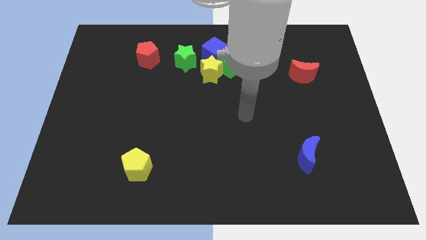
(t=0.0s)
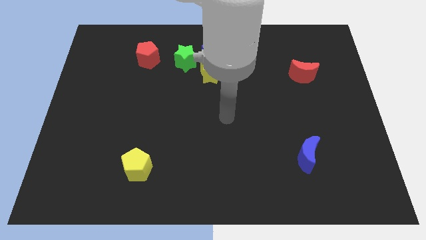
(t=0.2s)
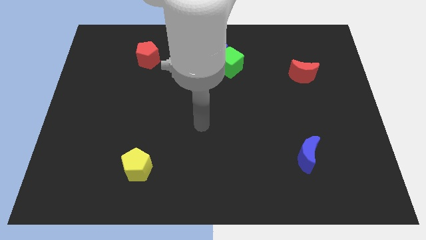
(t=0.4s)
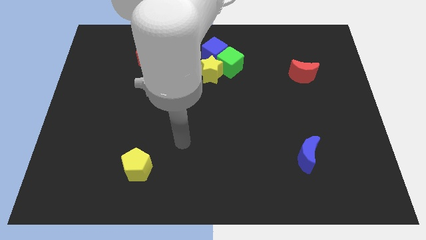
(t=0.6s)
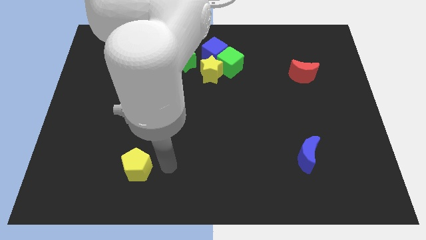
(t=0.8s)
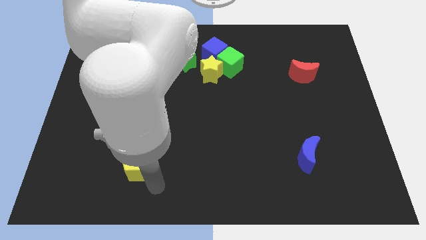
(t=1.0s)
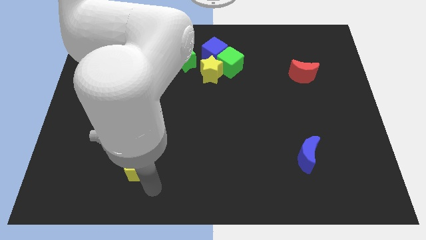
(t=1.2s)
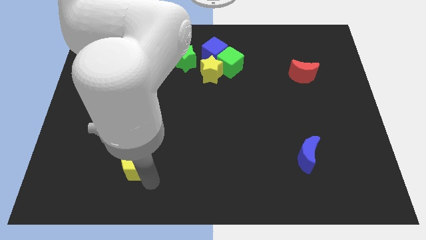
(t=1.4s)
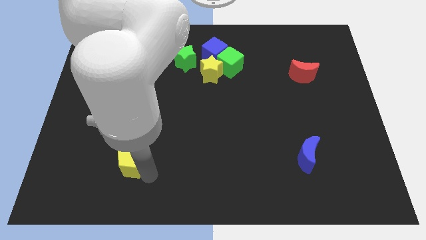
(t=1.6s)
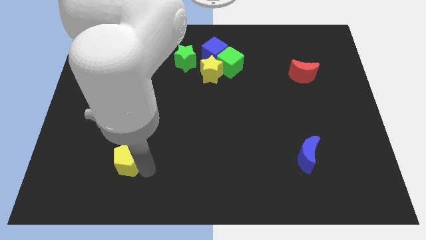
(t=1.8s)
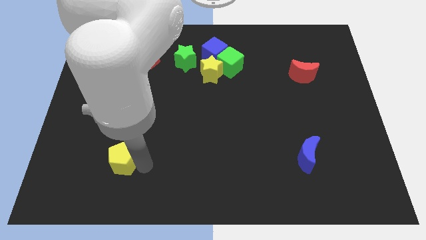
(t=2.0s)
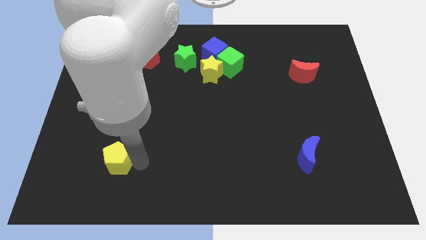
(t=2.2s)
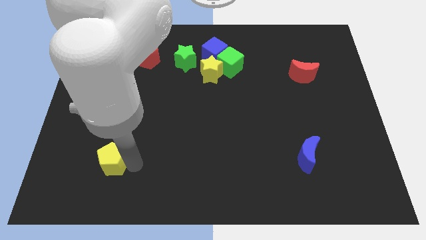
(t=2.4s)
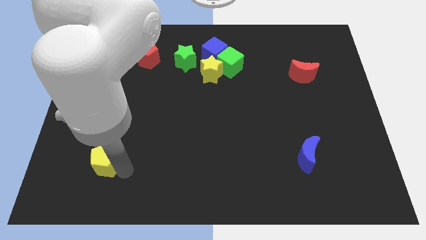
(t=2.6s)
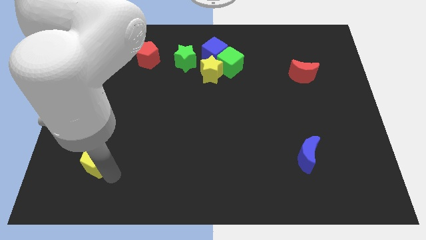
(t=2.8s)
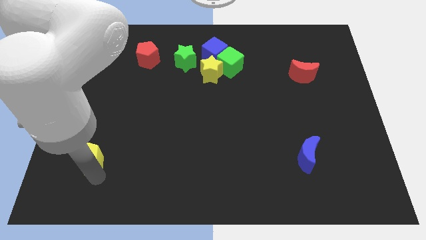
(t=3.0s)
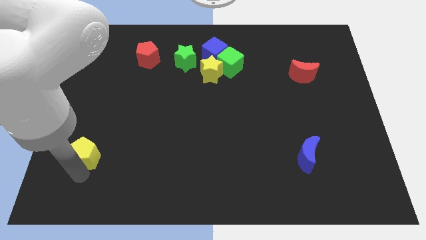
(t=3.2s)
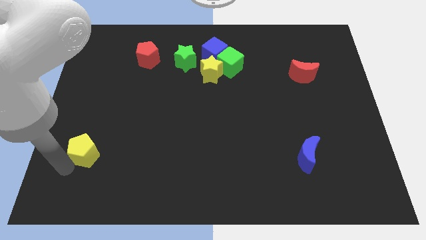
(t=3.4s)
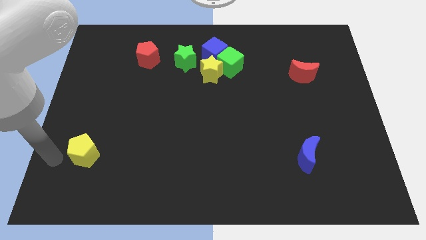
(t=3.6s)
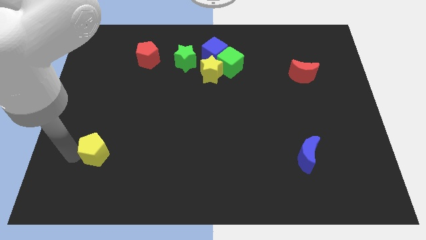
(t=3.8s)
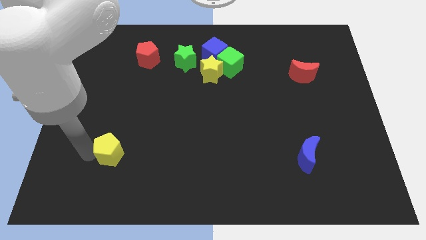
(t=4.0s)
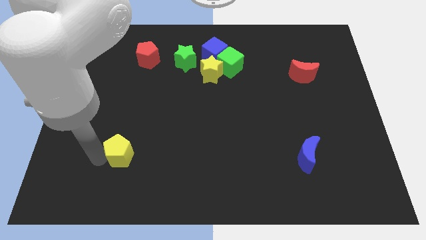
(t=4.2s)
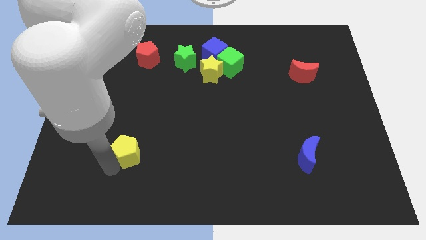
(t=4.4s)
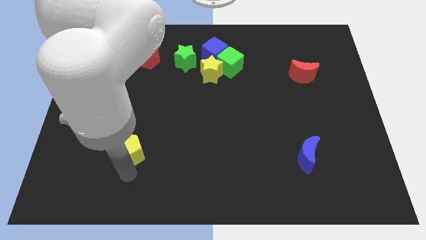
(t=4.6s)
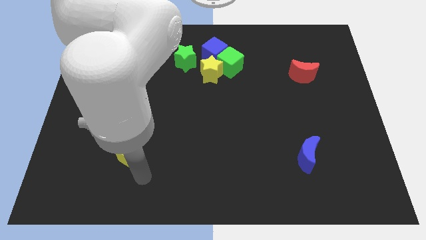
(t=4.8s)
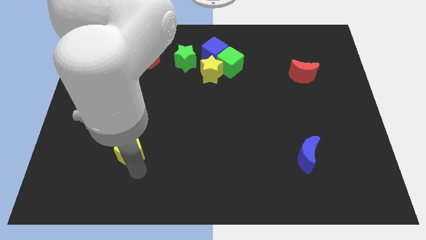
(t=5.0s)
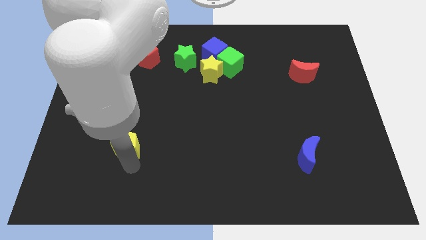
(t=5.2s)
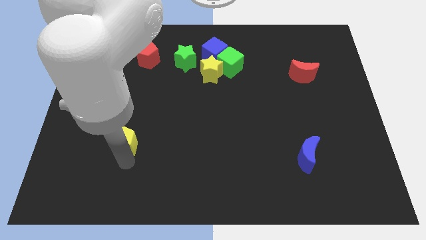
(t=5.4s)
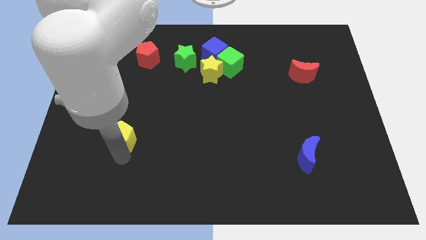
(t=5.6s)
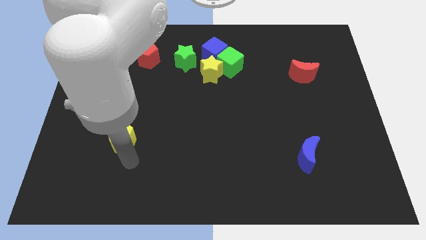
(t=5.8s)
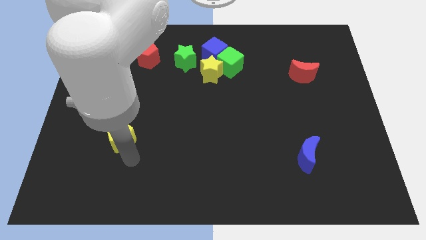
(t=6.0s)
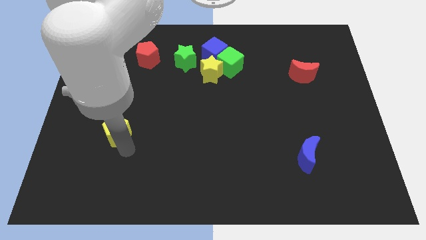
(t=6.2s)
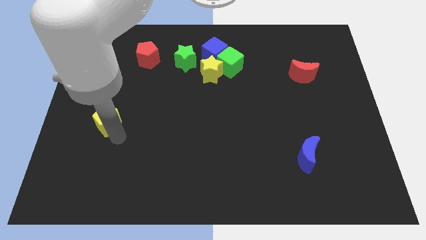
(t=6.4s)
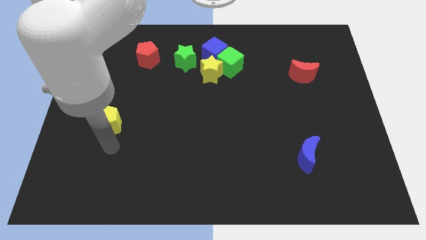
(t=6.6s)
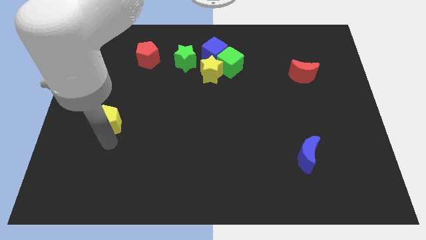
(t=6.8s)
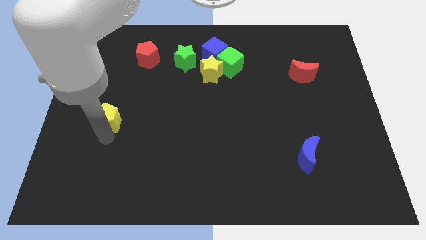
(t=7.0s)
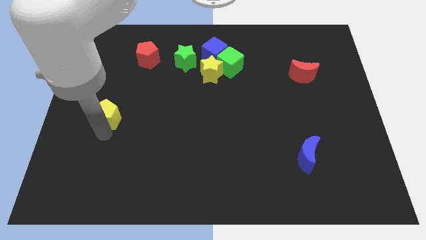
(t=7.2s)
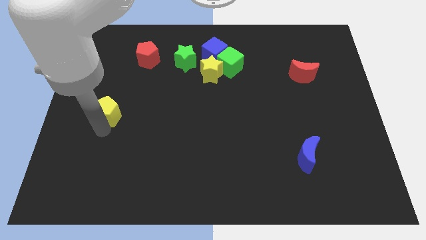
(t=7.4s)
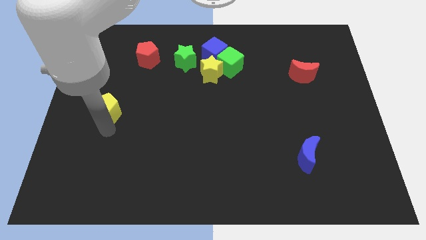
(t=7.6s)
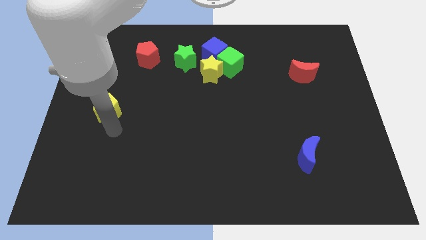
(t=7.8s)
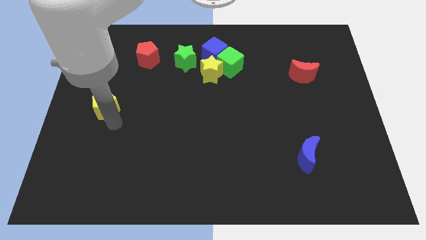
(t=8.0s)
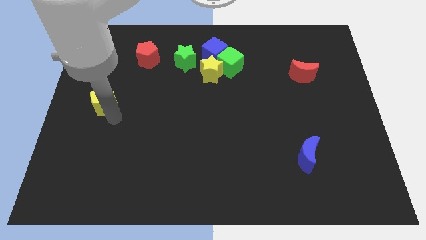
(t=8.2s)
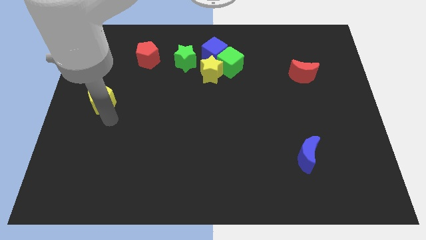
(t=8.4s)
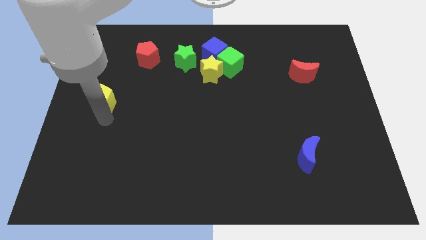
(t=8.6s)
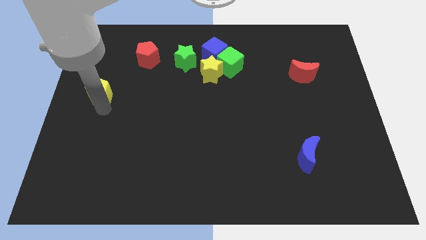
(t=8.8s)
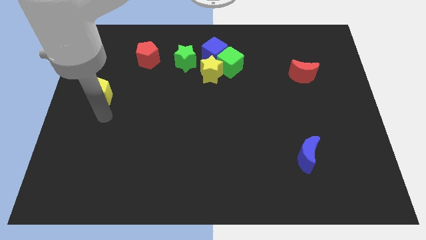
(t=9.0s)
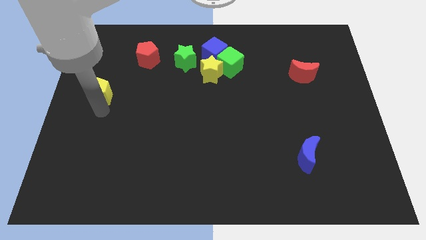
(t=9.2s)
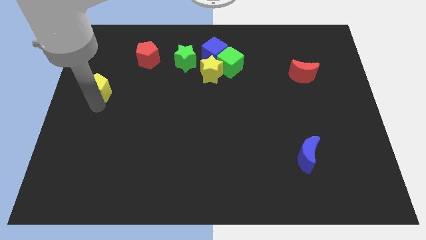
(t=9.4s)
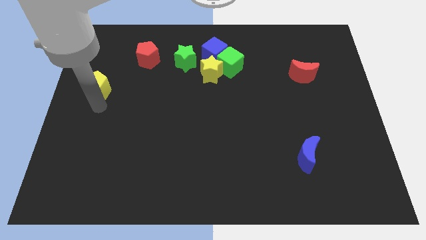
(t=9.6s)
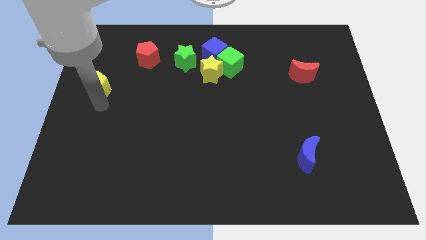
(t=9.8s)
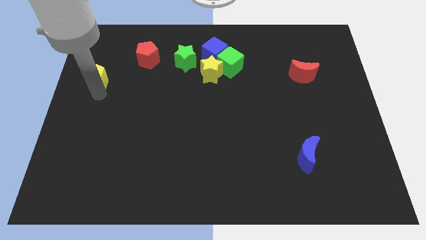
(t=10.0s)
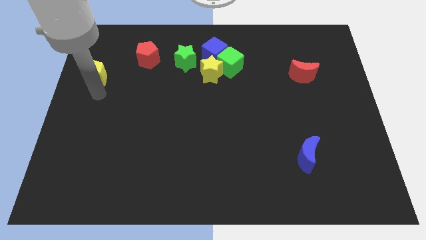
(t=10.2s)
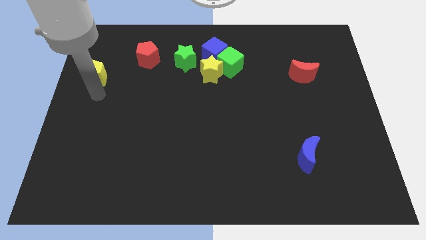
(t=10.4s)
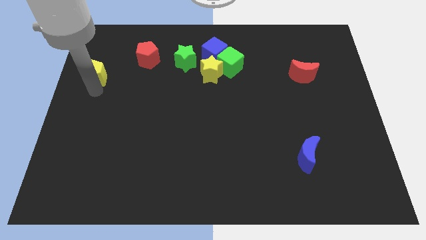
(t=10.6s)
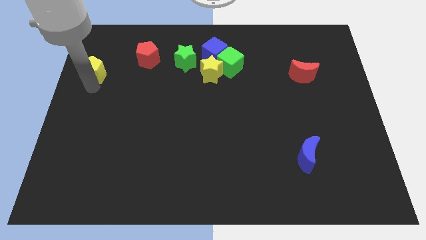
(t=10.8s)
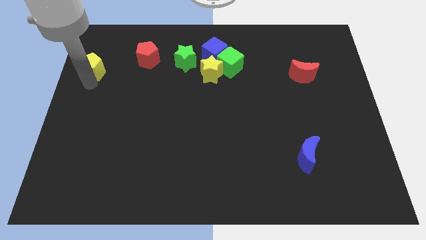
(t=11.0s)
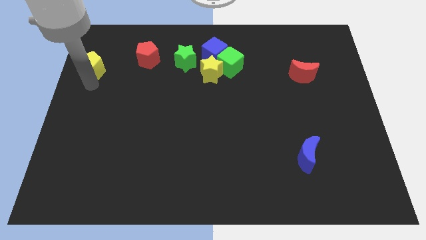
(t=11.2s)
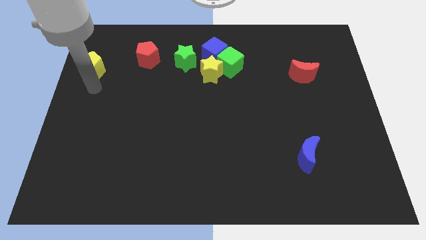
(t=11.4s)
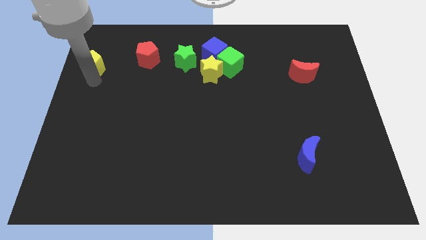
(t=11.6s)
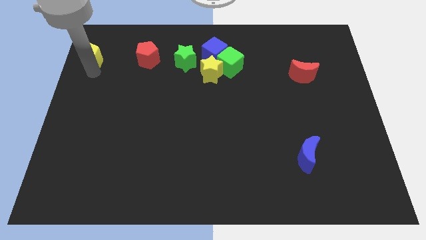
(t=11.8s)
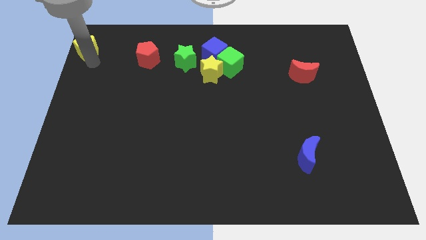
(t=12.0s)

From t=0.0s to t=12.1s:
move the yellow pentagon to the top left

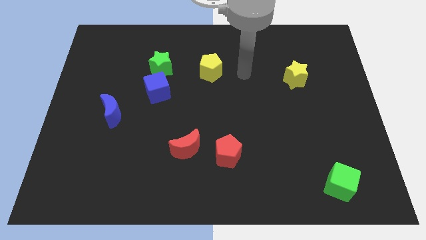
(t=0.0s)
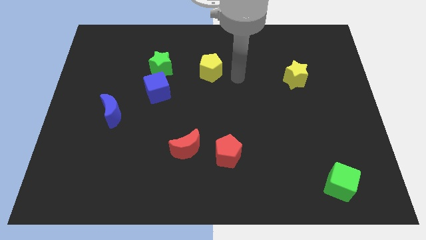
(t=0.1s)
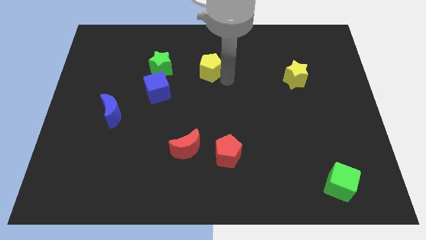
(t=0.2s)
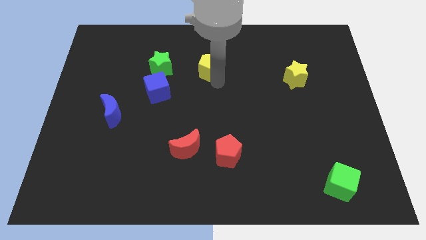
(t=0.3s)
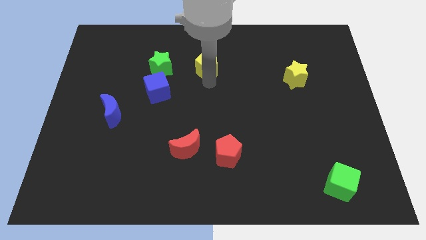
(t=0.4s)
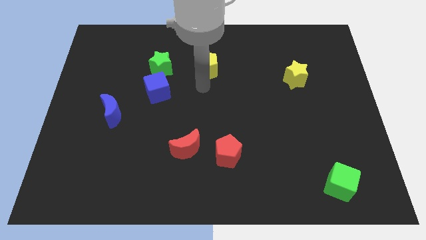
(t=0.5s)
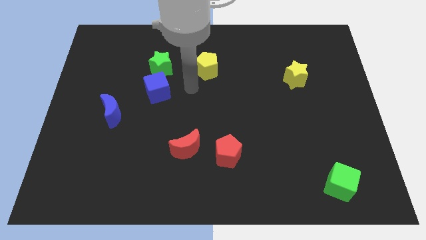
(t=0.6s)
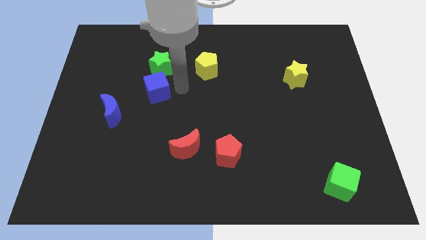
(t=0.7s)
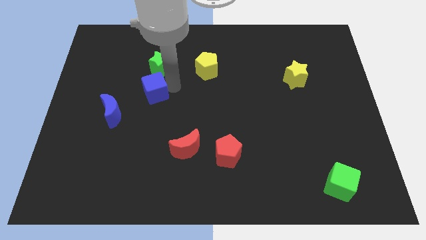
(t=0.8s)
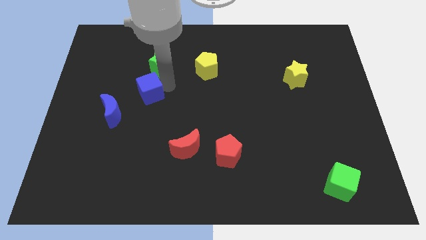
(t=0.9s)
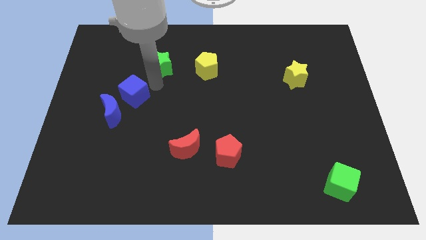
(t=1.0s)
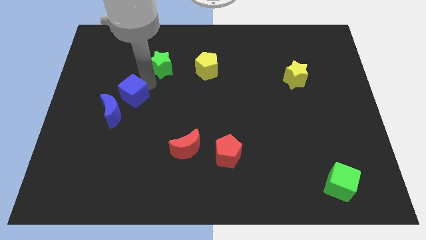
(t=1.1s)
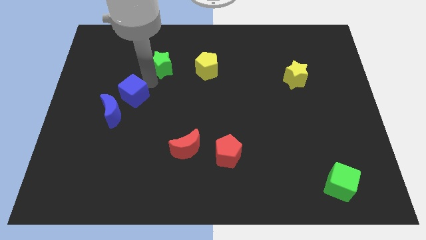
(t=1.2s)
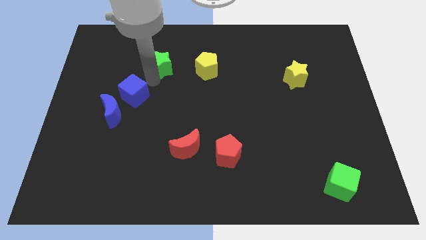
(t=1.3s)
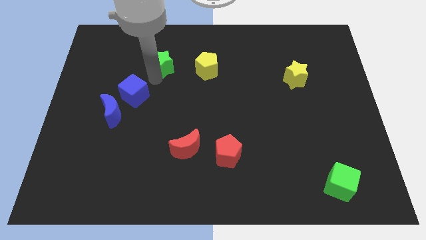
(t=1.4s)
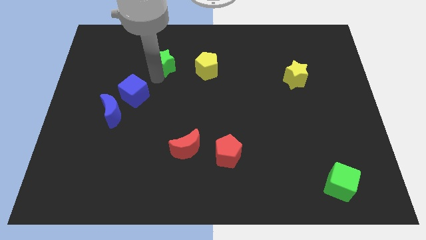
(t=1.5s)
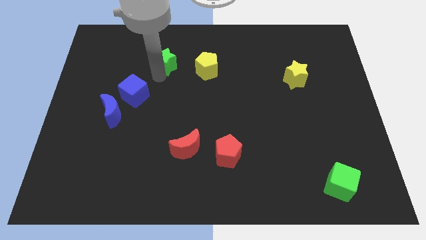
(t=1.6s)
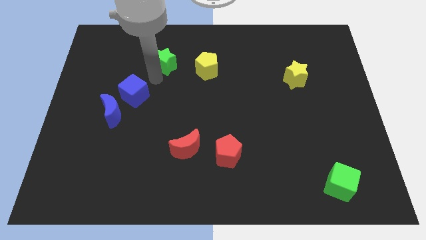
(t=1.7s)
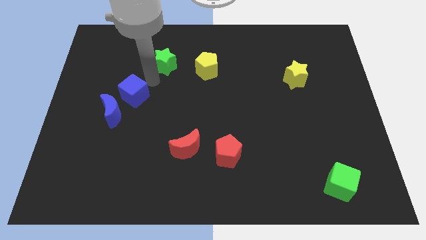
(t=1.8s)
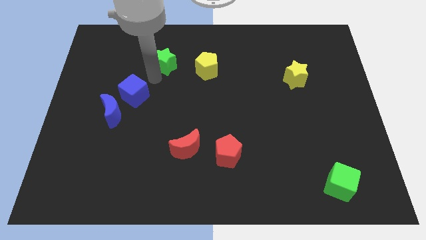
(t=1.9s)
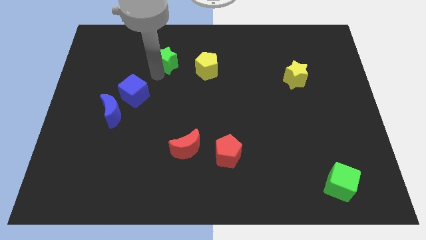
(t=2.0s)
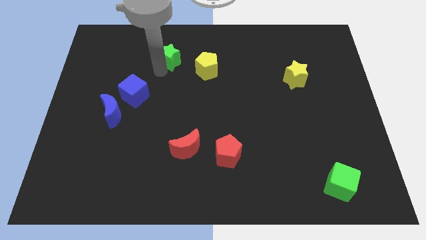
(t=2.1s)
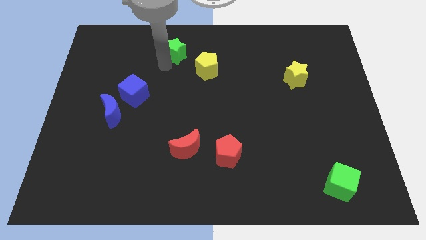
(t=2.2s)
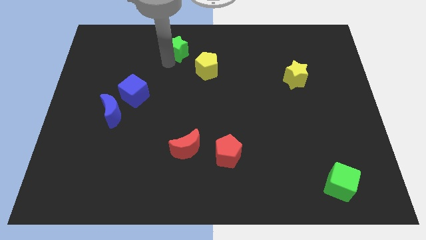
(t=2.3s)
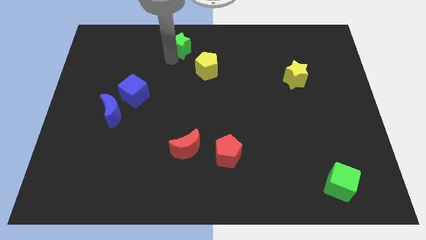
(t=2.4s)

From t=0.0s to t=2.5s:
move the green star to the towards your base
